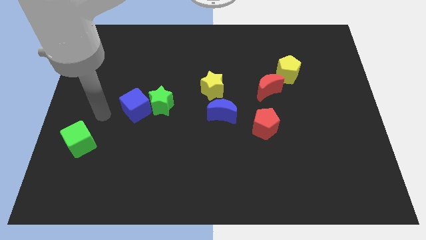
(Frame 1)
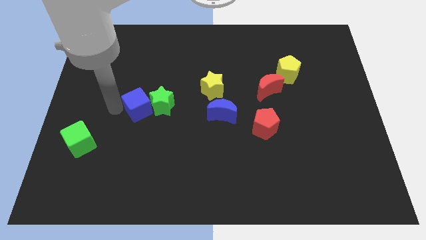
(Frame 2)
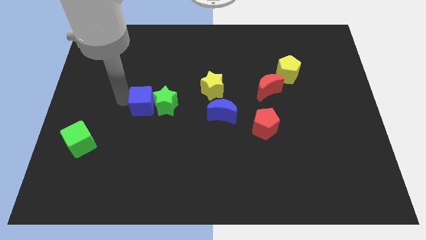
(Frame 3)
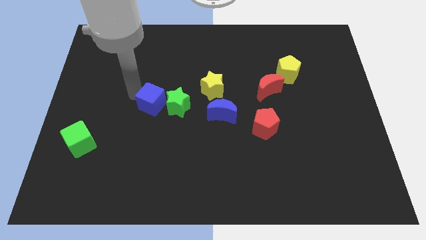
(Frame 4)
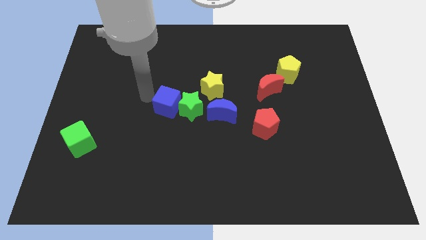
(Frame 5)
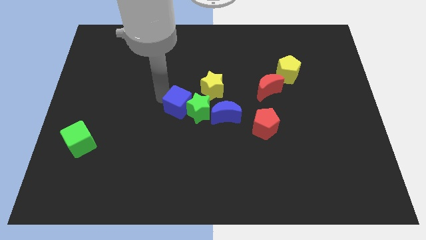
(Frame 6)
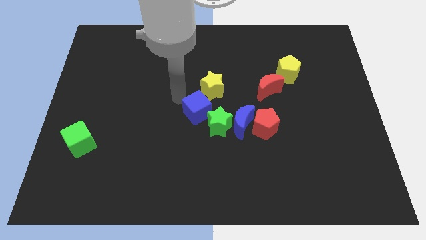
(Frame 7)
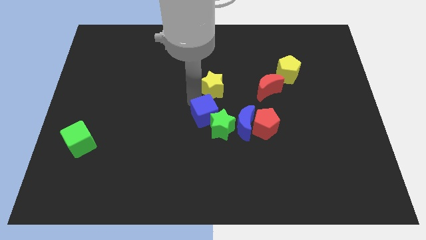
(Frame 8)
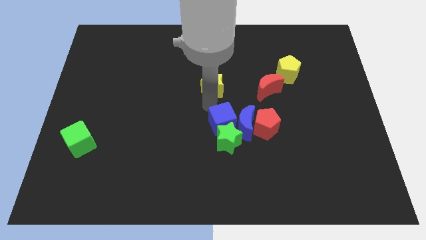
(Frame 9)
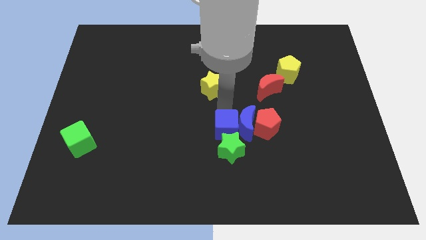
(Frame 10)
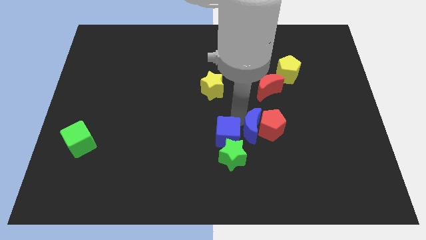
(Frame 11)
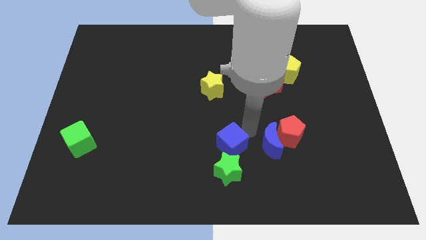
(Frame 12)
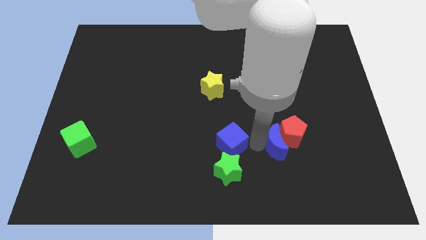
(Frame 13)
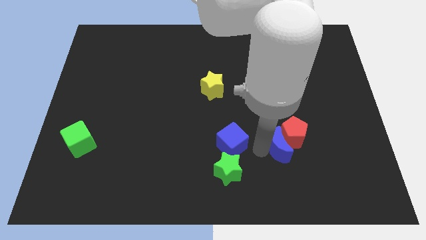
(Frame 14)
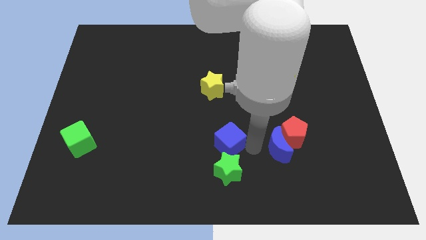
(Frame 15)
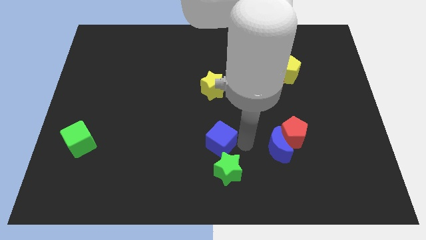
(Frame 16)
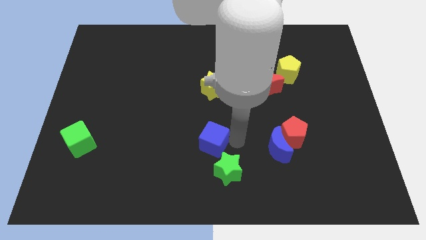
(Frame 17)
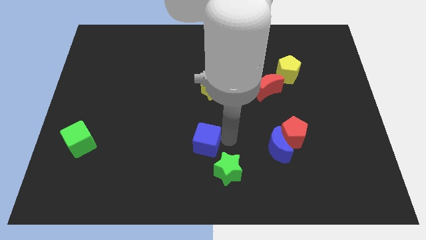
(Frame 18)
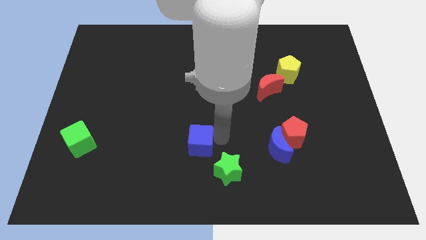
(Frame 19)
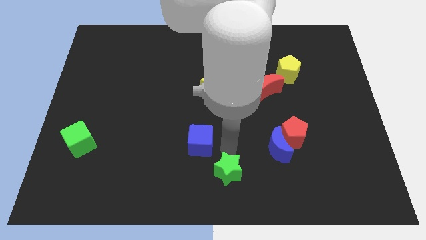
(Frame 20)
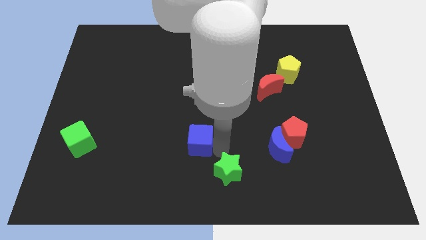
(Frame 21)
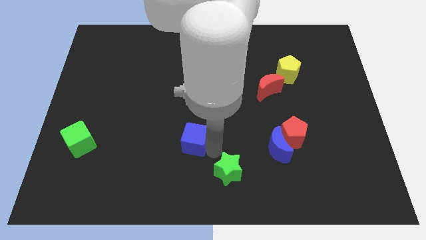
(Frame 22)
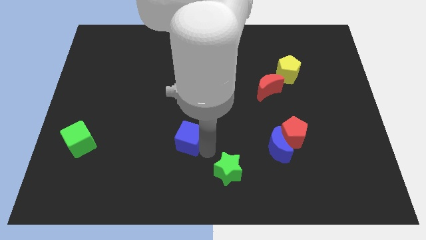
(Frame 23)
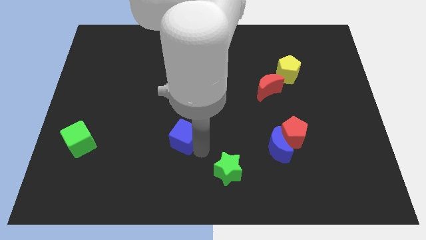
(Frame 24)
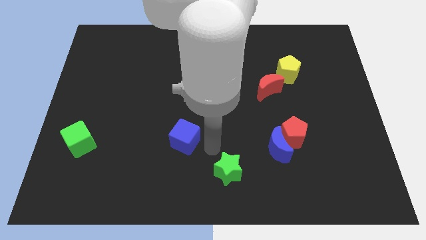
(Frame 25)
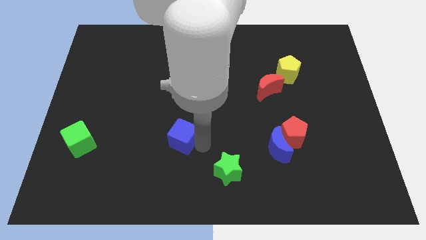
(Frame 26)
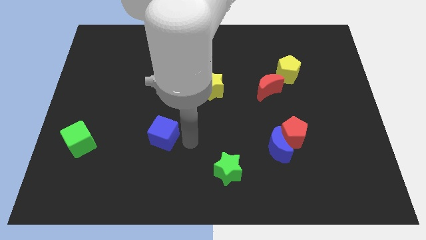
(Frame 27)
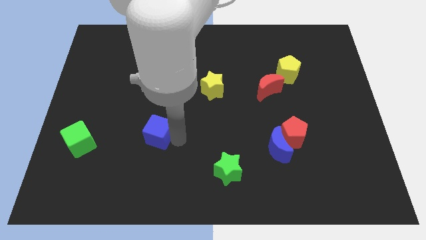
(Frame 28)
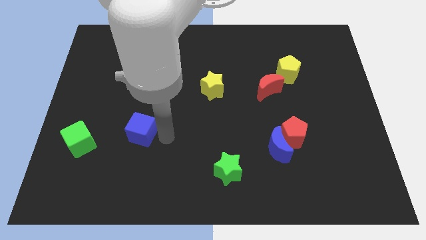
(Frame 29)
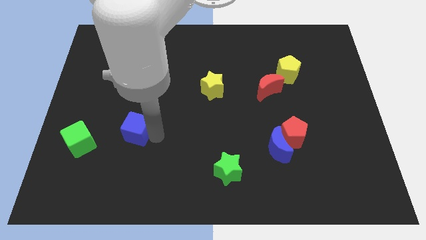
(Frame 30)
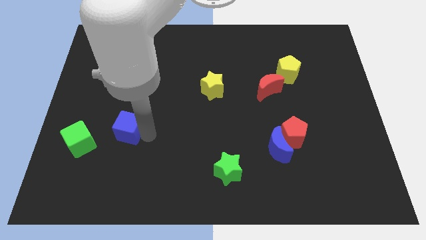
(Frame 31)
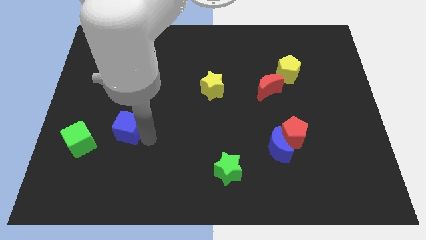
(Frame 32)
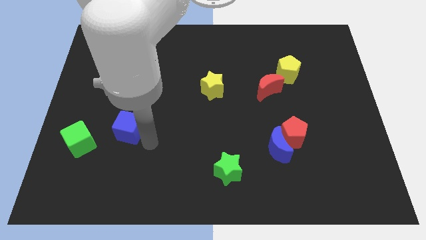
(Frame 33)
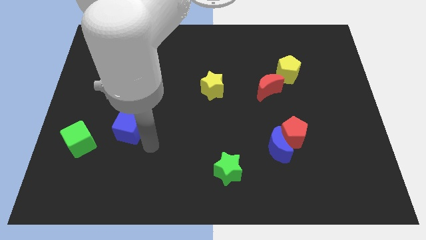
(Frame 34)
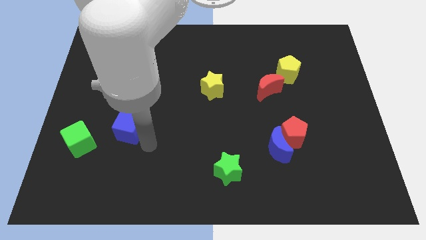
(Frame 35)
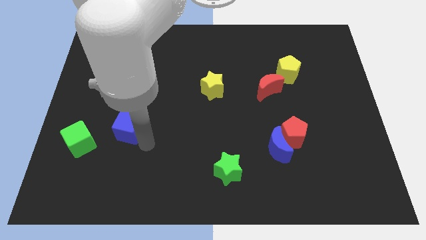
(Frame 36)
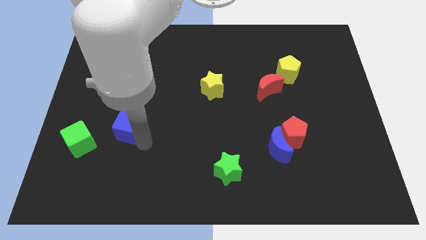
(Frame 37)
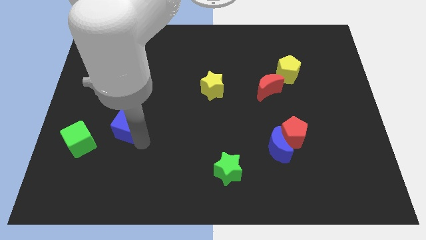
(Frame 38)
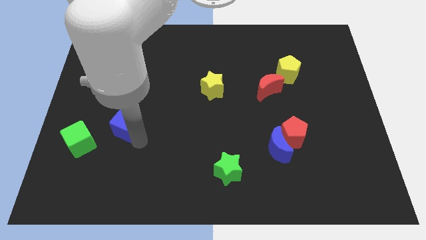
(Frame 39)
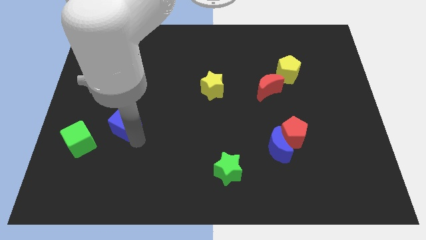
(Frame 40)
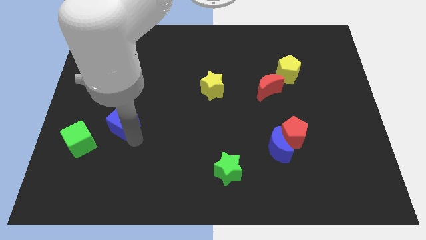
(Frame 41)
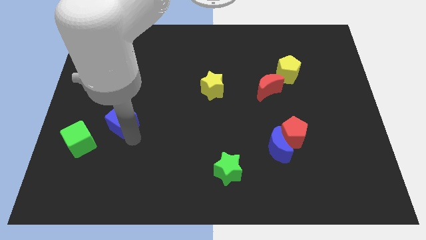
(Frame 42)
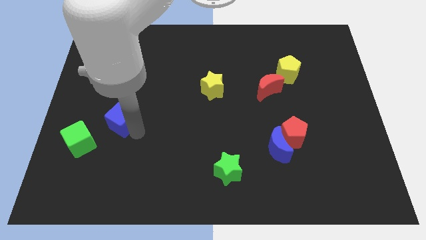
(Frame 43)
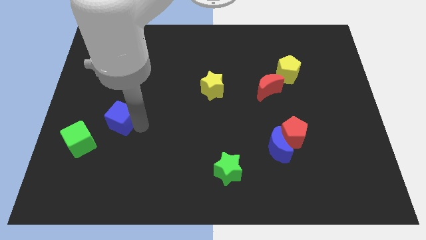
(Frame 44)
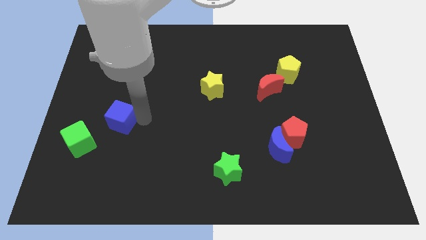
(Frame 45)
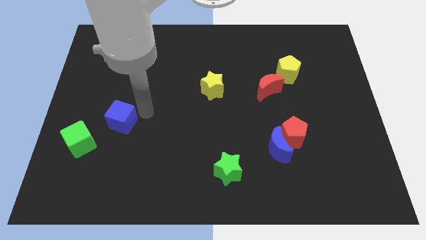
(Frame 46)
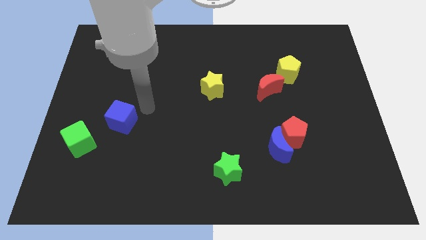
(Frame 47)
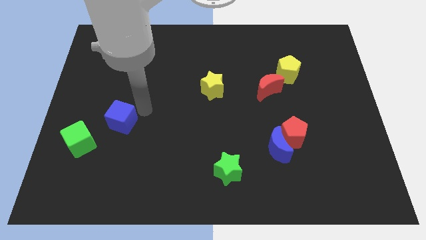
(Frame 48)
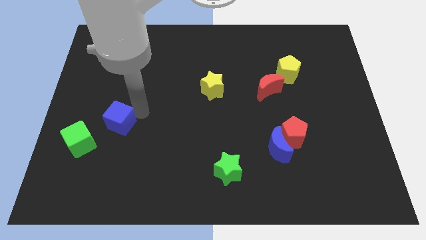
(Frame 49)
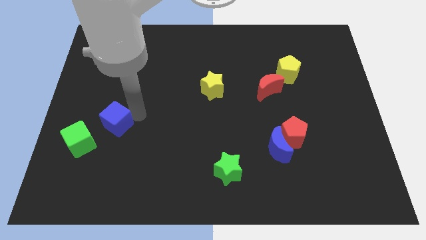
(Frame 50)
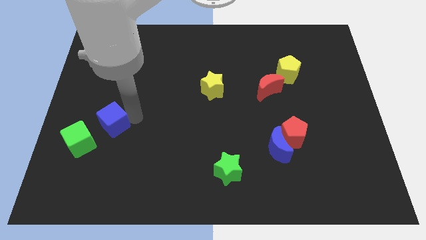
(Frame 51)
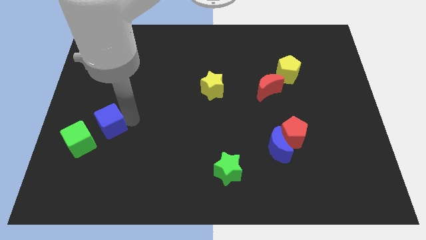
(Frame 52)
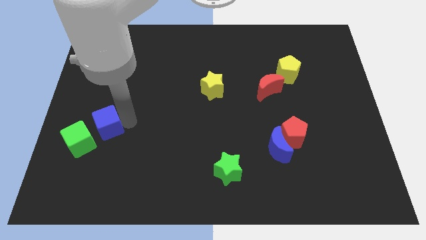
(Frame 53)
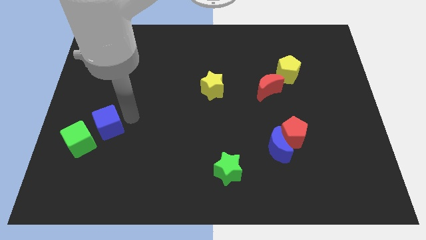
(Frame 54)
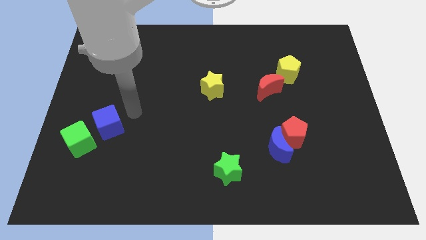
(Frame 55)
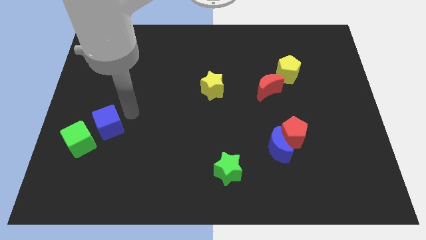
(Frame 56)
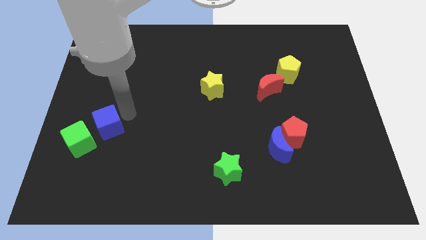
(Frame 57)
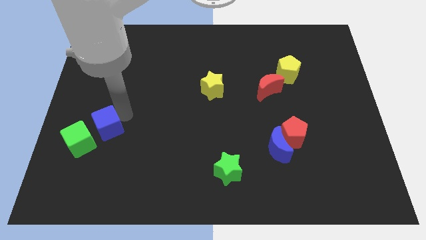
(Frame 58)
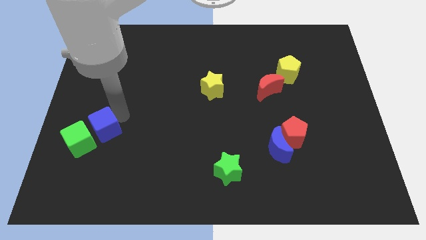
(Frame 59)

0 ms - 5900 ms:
push the blue cube close to the green cube

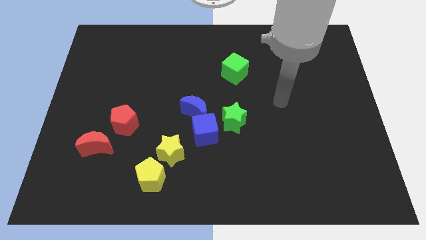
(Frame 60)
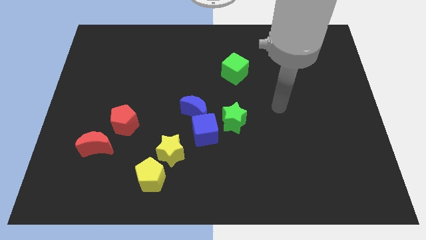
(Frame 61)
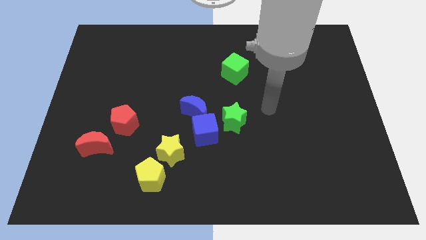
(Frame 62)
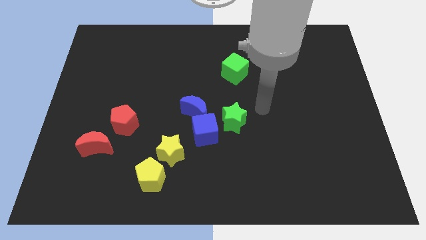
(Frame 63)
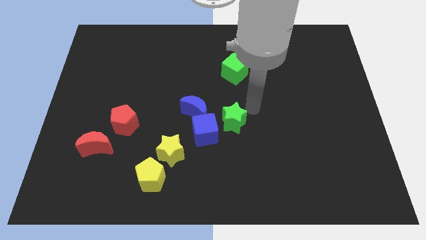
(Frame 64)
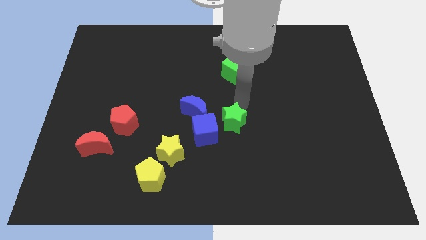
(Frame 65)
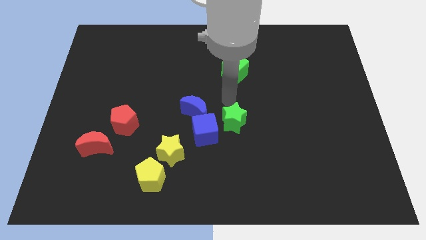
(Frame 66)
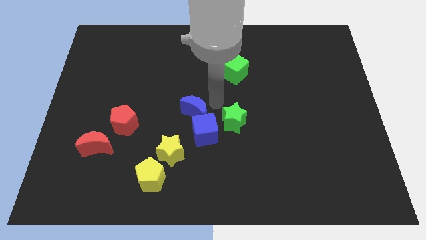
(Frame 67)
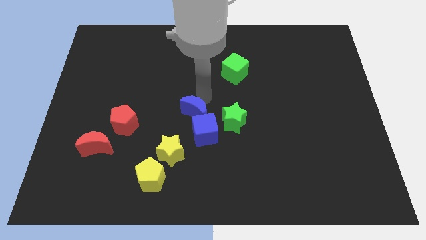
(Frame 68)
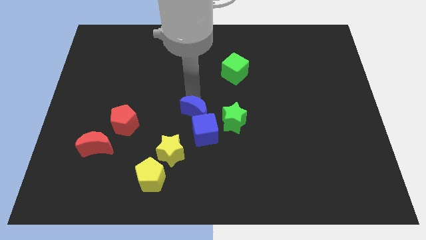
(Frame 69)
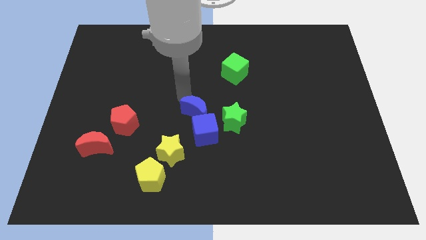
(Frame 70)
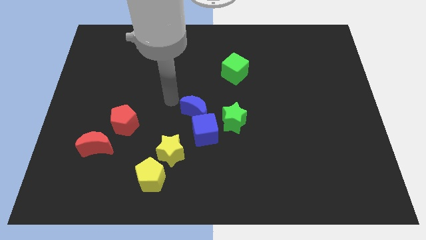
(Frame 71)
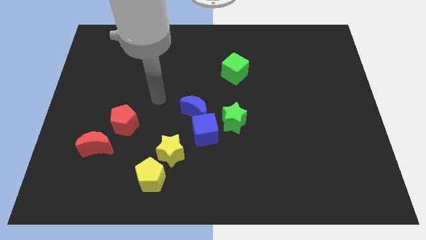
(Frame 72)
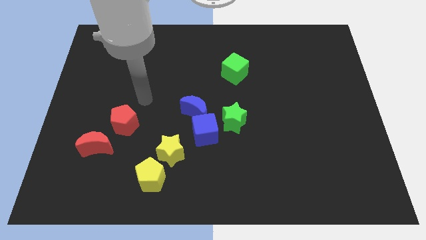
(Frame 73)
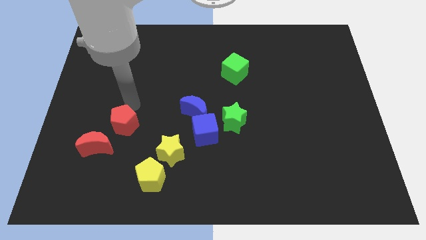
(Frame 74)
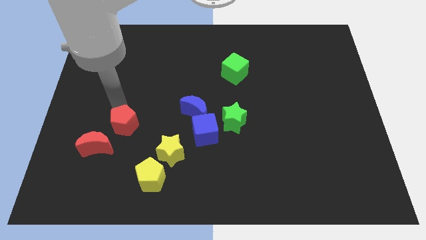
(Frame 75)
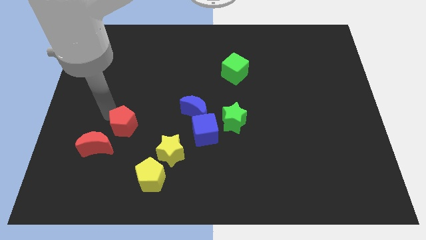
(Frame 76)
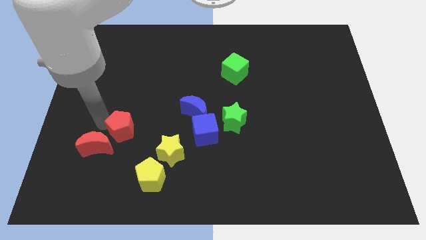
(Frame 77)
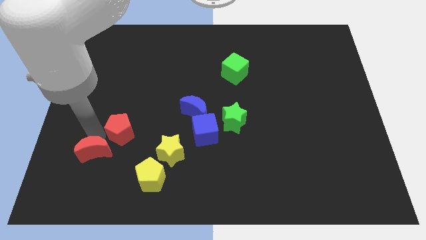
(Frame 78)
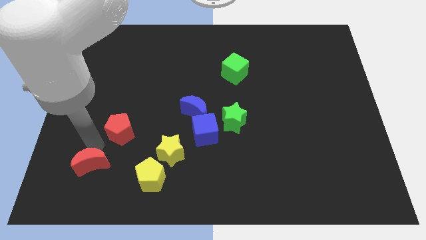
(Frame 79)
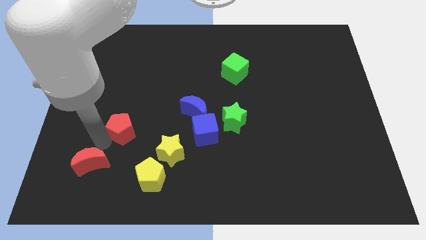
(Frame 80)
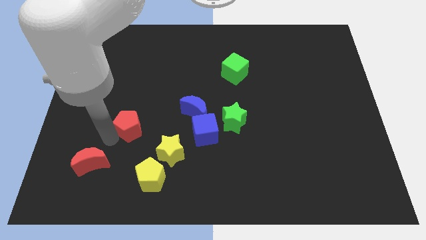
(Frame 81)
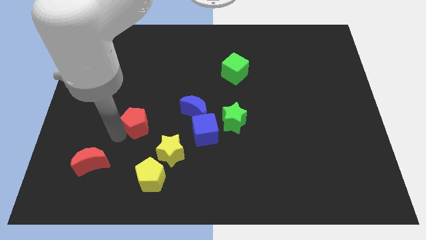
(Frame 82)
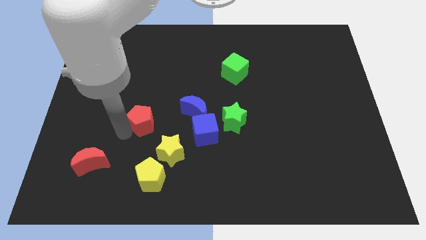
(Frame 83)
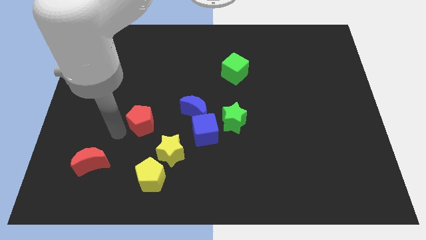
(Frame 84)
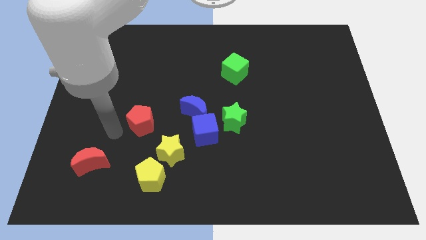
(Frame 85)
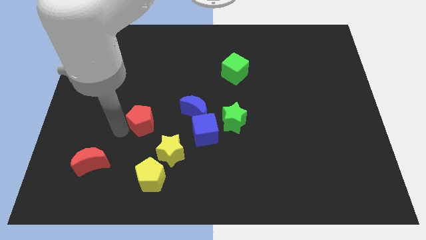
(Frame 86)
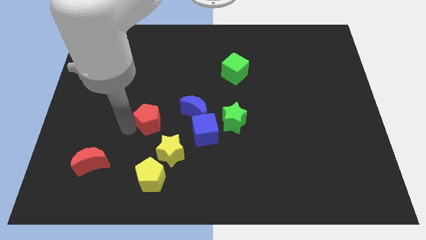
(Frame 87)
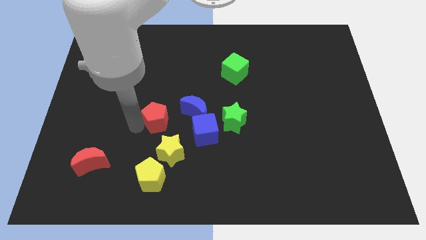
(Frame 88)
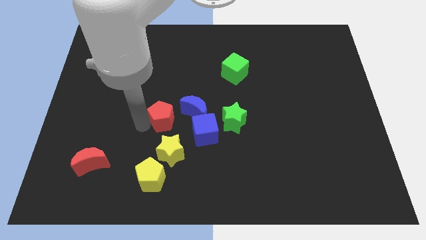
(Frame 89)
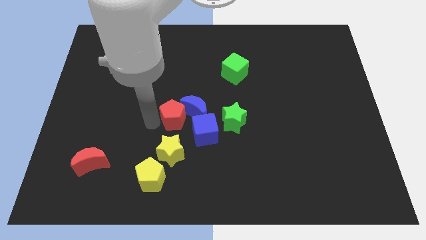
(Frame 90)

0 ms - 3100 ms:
put the red pentagon to the blue moon
